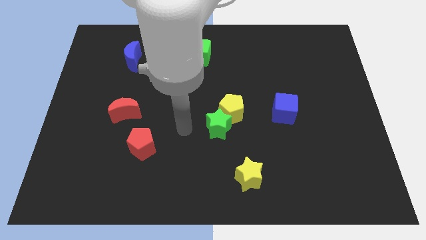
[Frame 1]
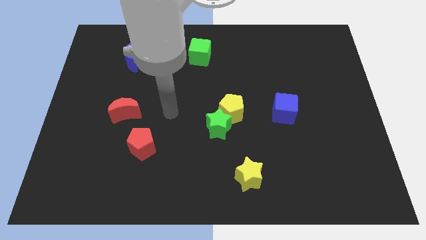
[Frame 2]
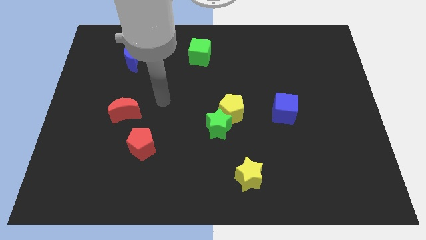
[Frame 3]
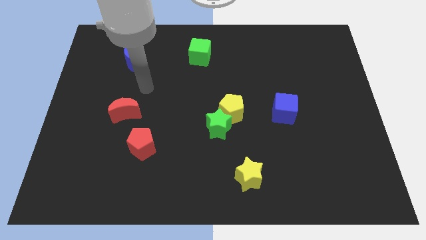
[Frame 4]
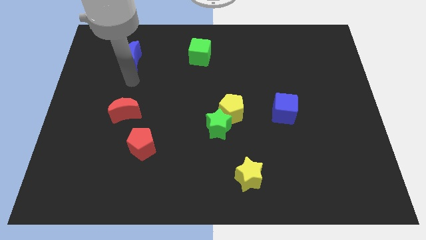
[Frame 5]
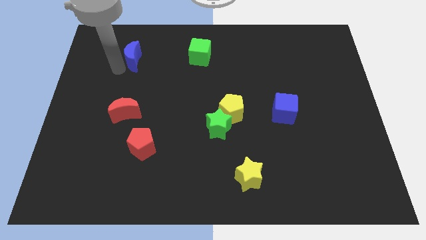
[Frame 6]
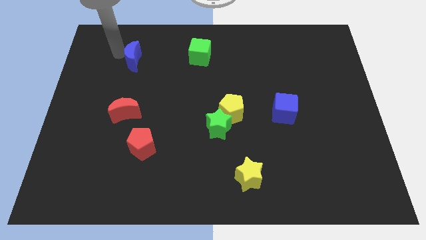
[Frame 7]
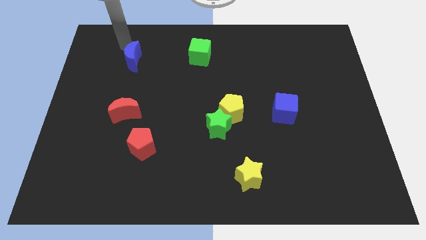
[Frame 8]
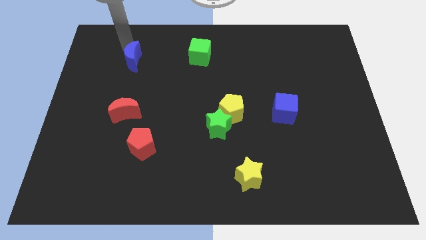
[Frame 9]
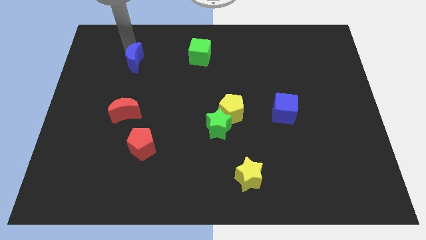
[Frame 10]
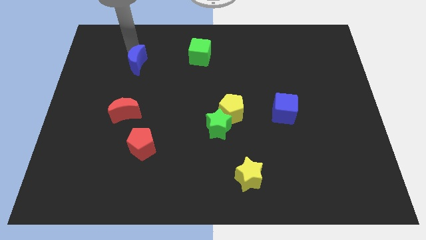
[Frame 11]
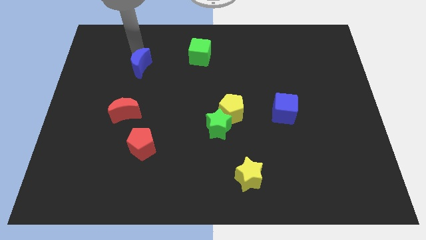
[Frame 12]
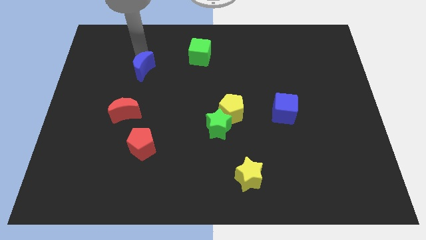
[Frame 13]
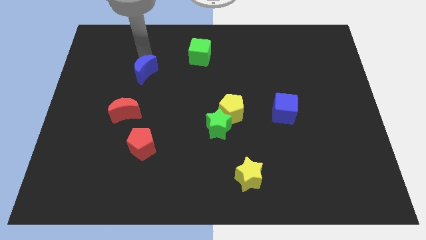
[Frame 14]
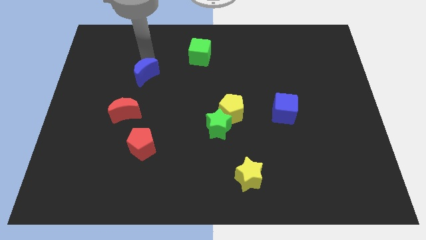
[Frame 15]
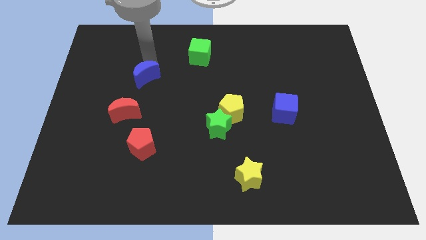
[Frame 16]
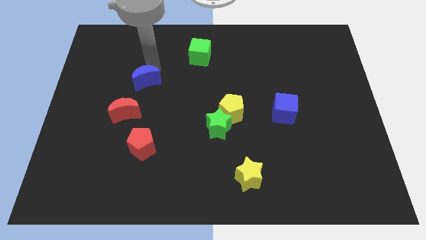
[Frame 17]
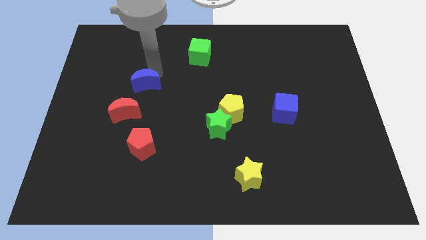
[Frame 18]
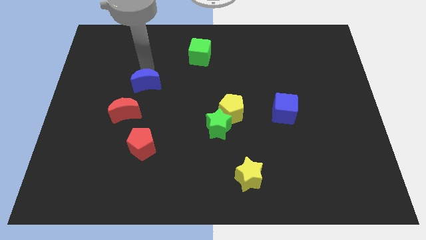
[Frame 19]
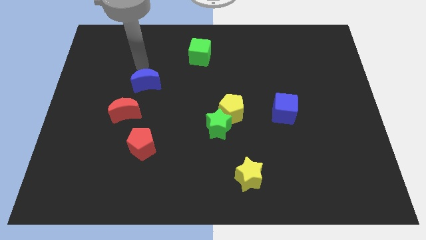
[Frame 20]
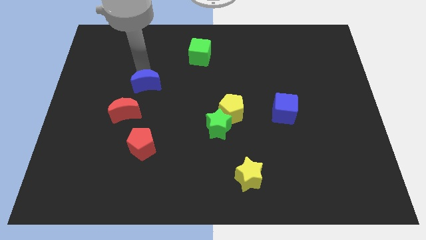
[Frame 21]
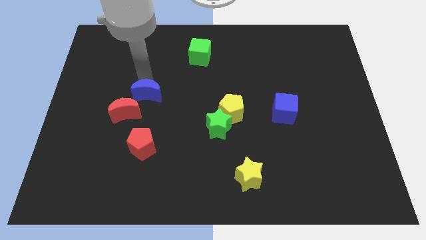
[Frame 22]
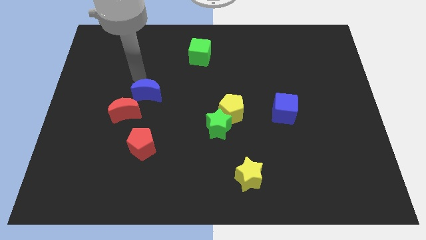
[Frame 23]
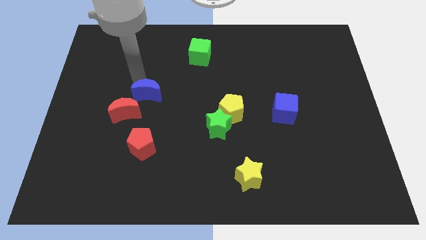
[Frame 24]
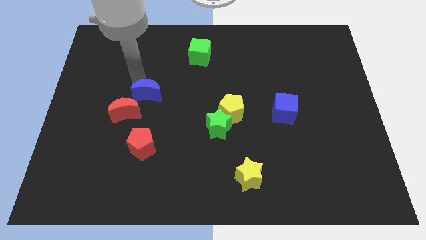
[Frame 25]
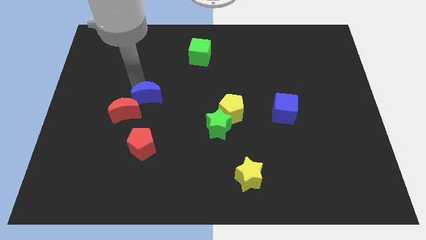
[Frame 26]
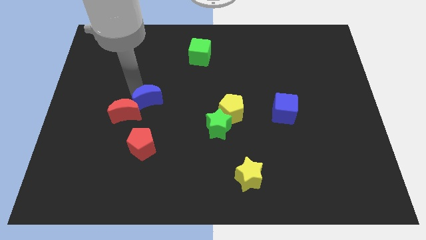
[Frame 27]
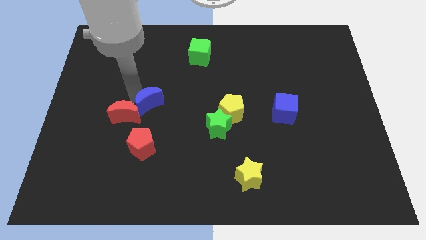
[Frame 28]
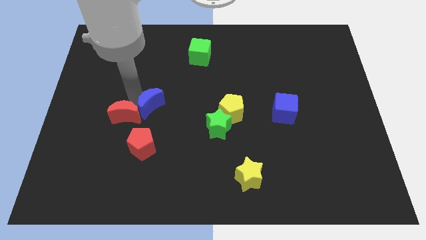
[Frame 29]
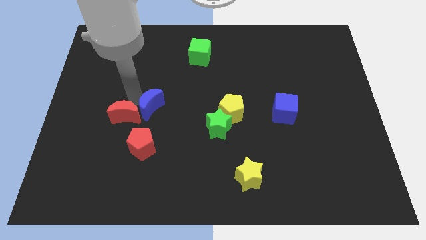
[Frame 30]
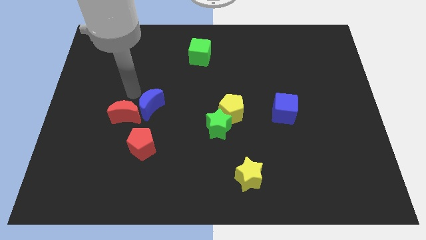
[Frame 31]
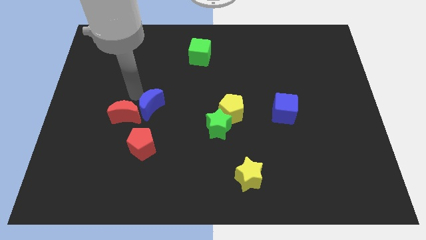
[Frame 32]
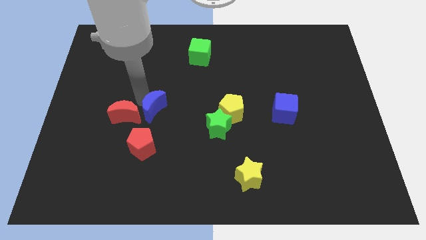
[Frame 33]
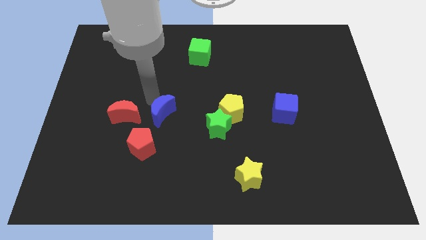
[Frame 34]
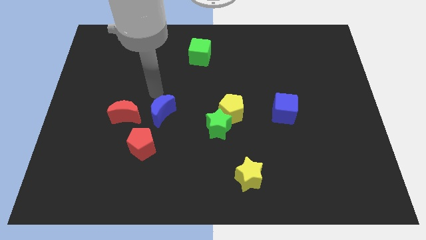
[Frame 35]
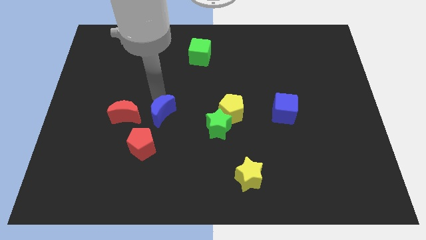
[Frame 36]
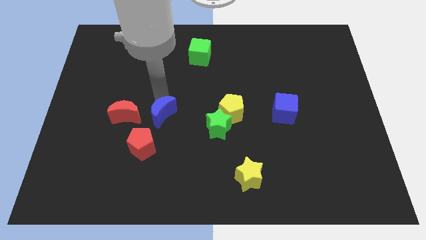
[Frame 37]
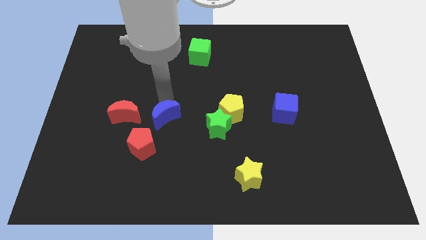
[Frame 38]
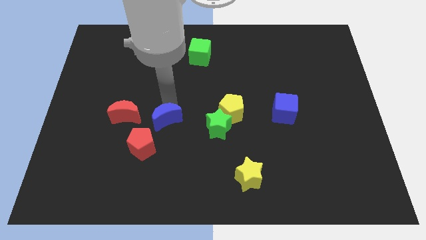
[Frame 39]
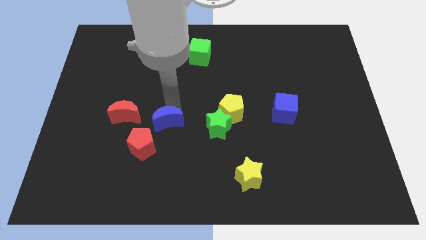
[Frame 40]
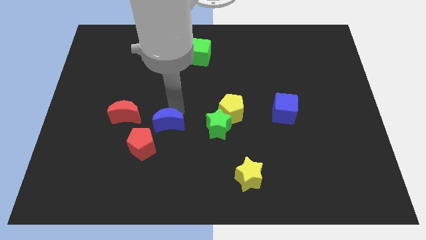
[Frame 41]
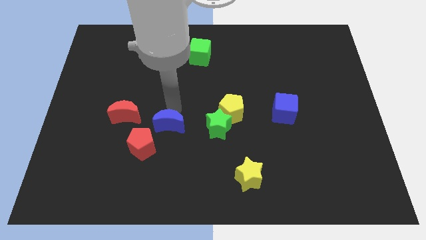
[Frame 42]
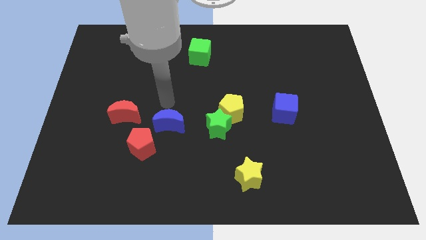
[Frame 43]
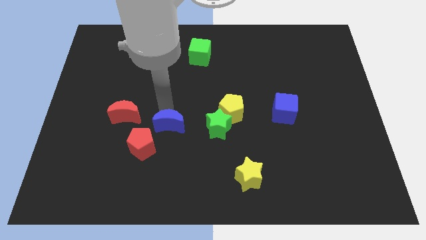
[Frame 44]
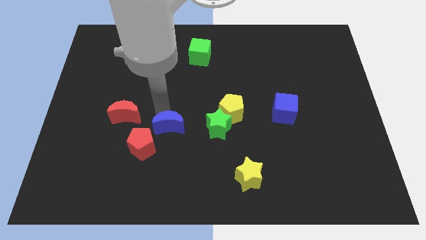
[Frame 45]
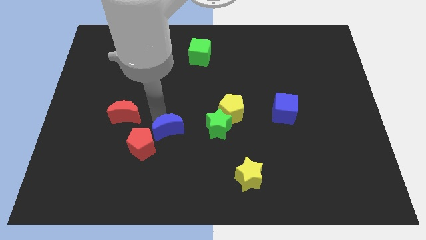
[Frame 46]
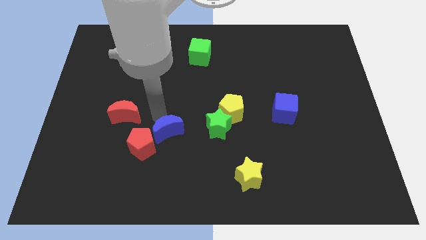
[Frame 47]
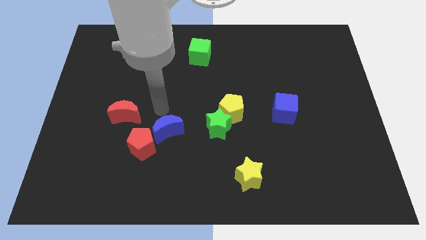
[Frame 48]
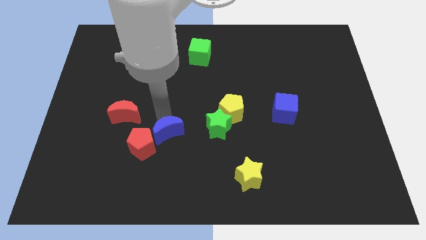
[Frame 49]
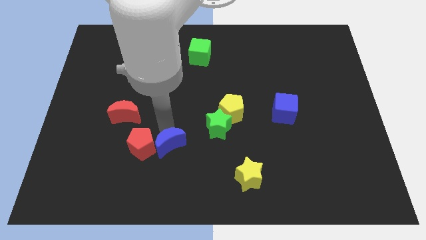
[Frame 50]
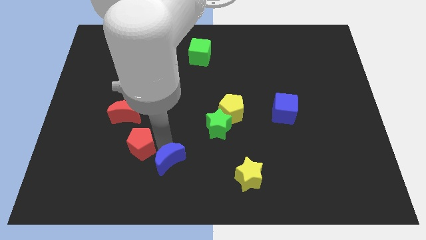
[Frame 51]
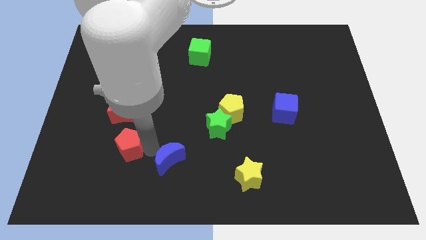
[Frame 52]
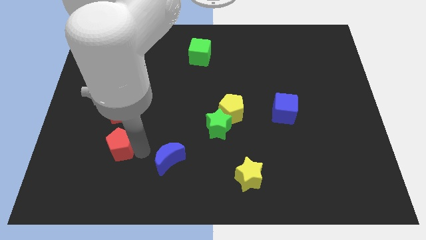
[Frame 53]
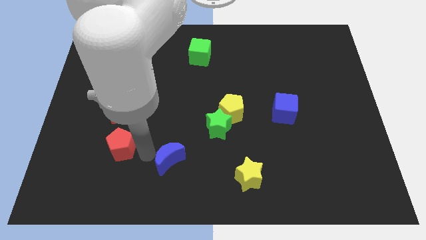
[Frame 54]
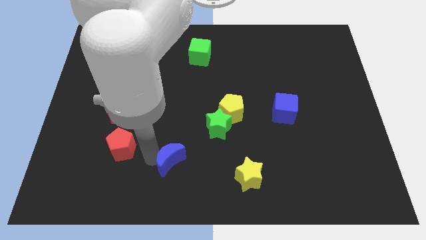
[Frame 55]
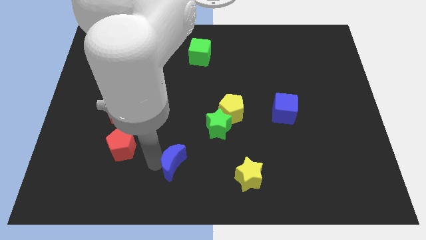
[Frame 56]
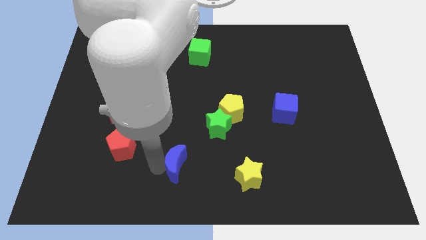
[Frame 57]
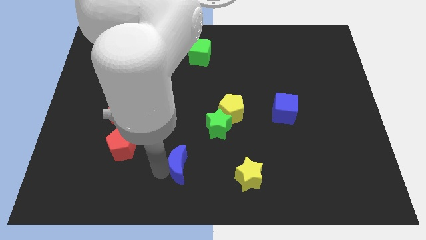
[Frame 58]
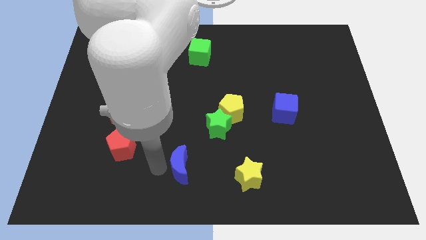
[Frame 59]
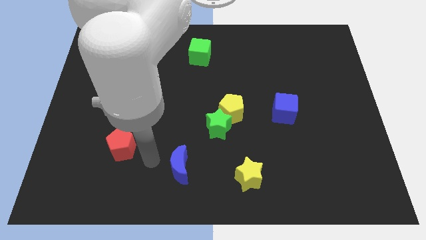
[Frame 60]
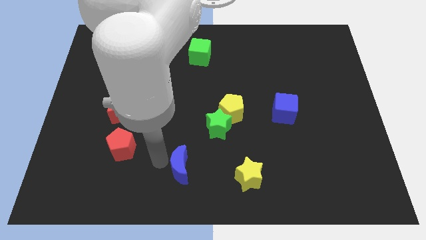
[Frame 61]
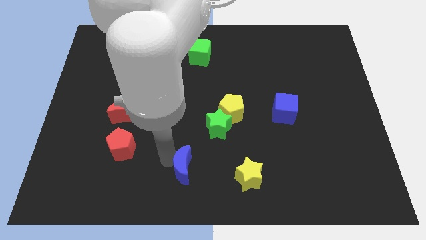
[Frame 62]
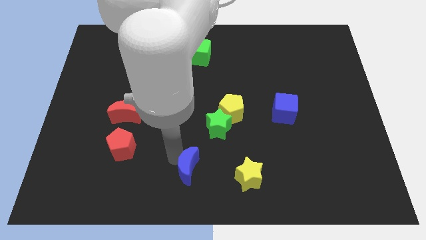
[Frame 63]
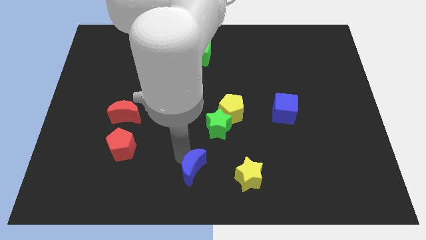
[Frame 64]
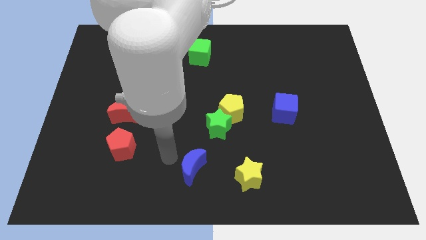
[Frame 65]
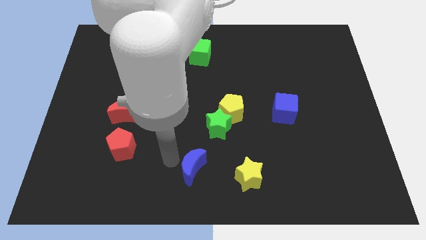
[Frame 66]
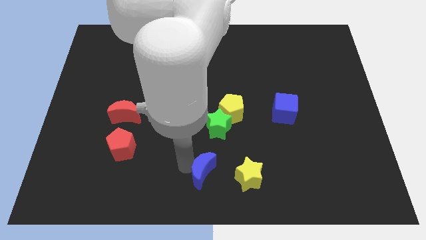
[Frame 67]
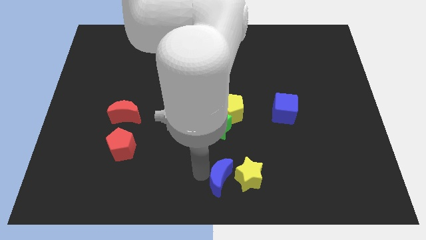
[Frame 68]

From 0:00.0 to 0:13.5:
put the blue moon close to the yellow star

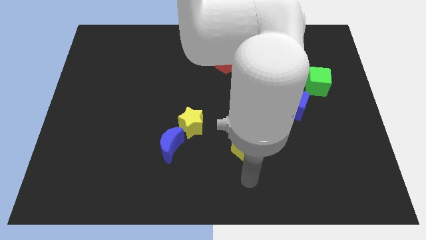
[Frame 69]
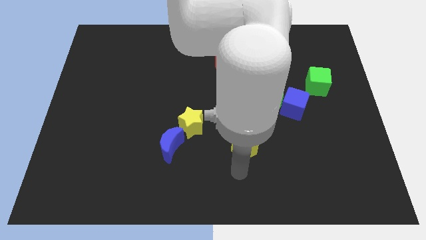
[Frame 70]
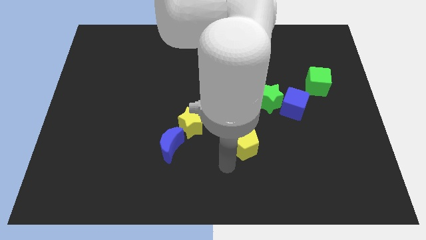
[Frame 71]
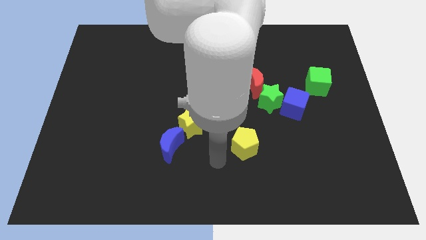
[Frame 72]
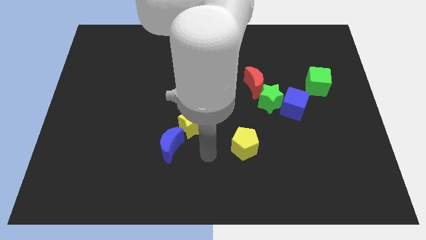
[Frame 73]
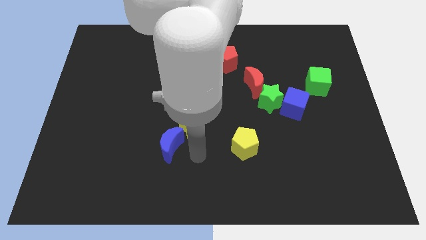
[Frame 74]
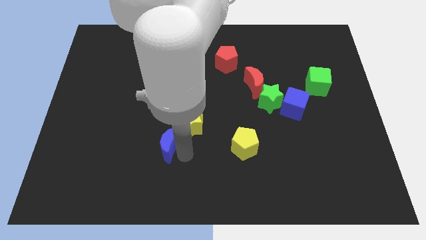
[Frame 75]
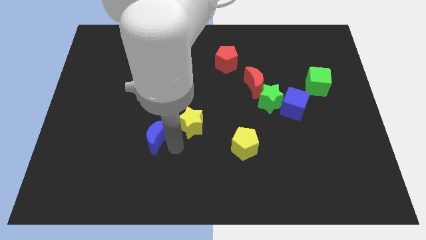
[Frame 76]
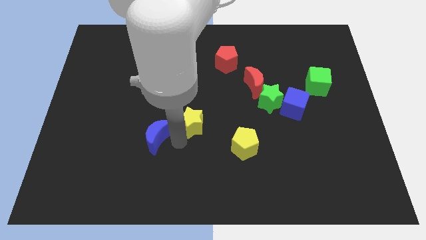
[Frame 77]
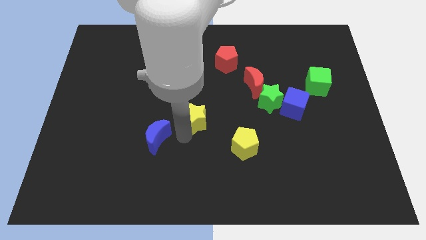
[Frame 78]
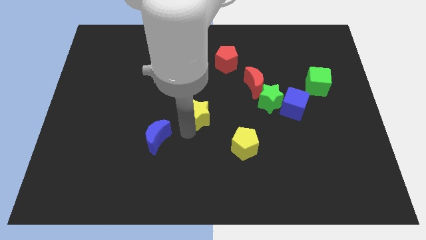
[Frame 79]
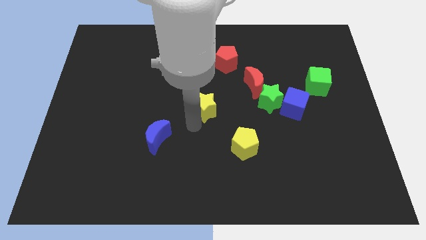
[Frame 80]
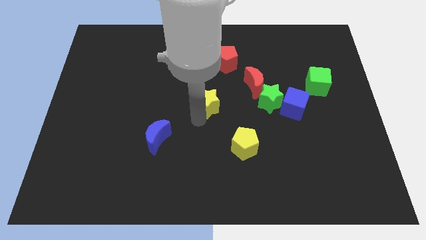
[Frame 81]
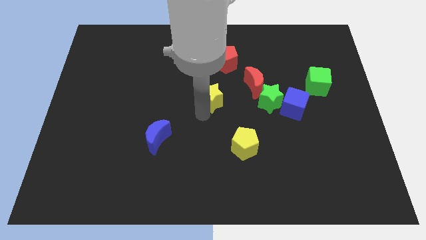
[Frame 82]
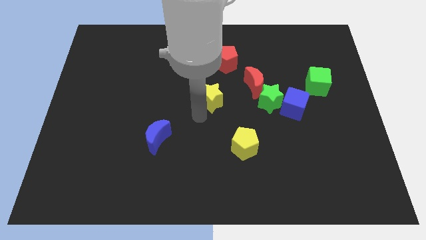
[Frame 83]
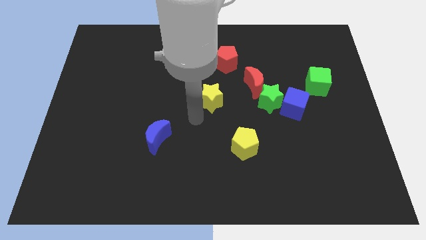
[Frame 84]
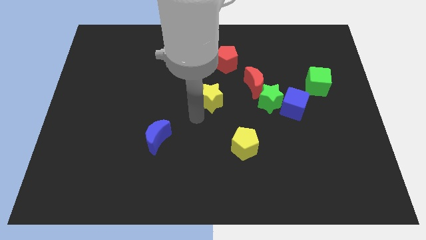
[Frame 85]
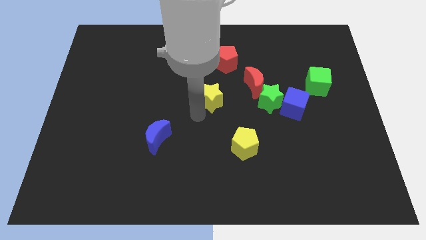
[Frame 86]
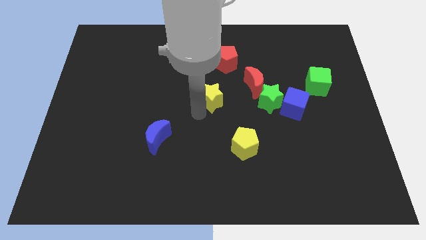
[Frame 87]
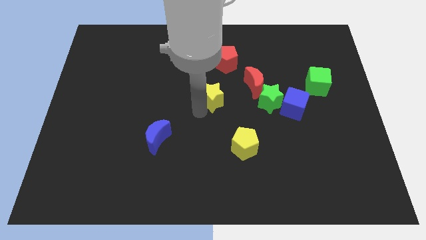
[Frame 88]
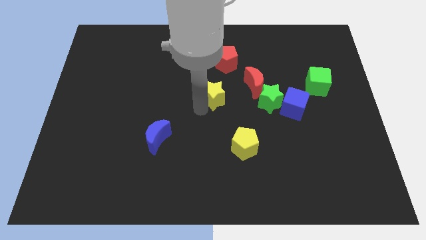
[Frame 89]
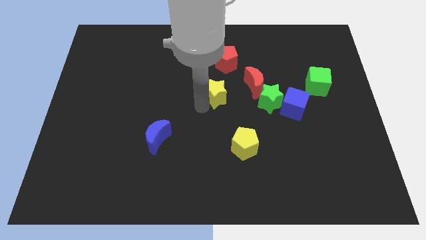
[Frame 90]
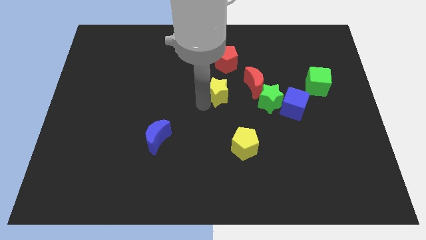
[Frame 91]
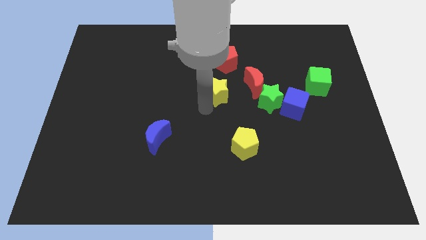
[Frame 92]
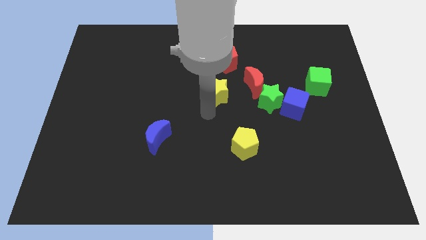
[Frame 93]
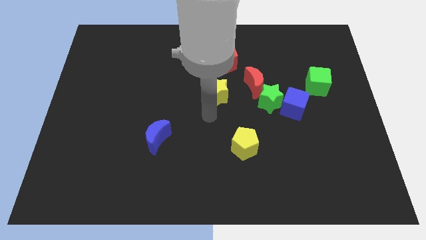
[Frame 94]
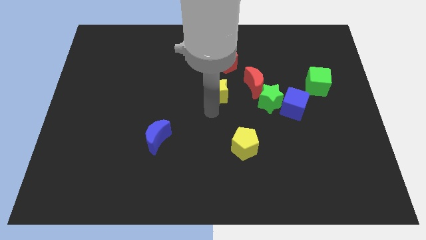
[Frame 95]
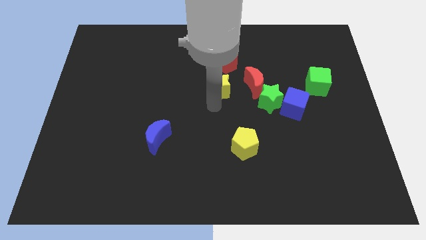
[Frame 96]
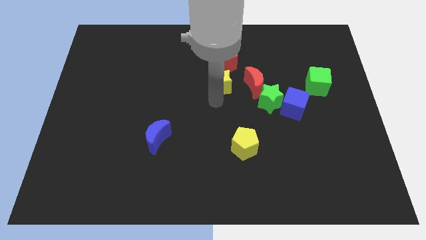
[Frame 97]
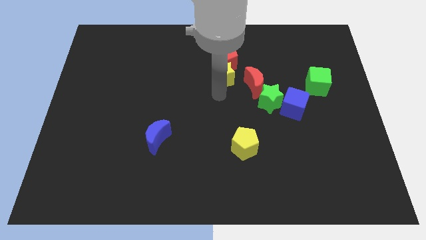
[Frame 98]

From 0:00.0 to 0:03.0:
move the yellow star close to the red pentagon
